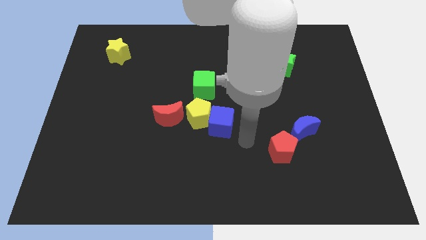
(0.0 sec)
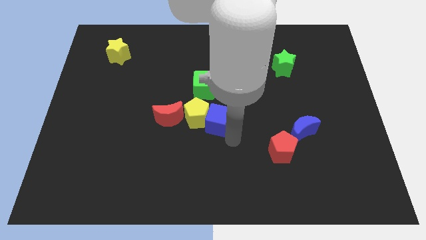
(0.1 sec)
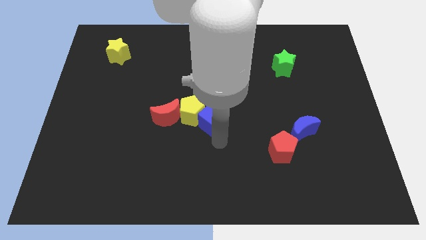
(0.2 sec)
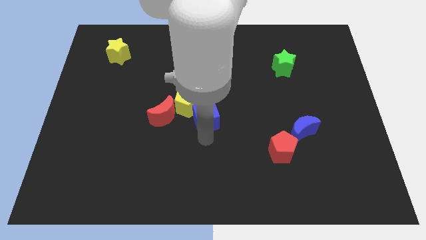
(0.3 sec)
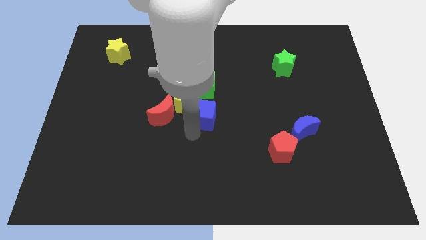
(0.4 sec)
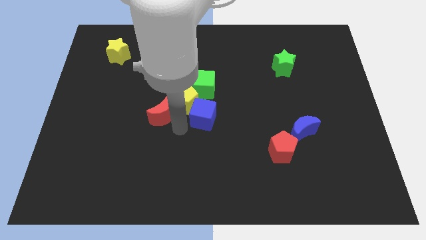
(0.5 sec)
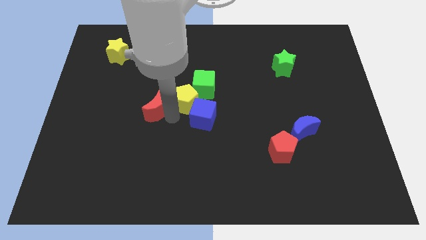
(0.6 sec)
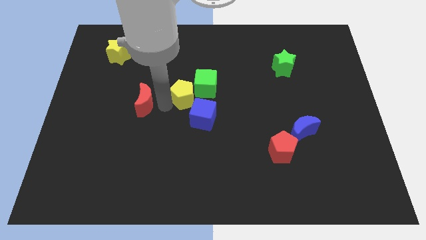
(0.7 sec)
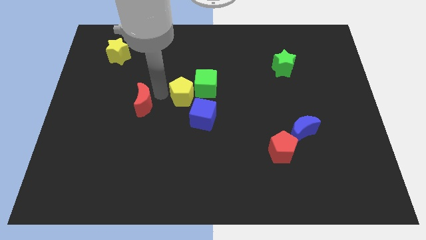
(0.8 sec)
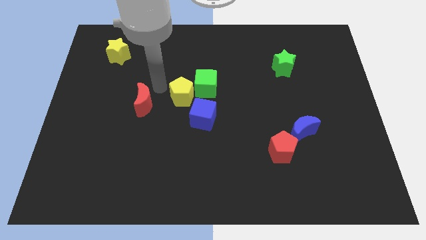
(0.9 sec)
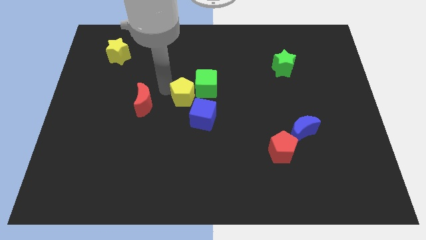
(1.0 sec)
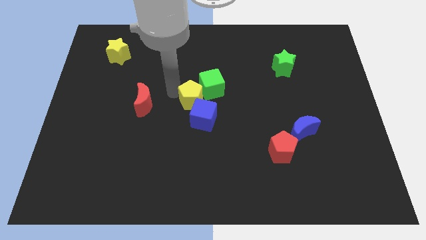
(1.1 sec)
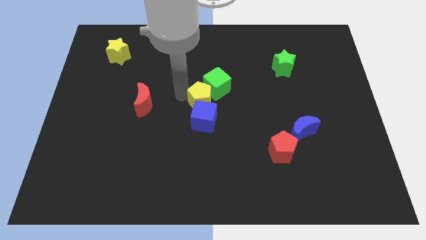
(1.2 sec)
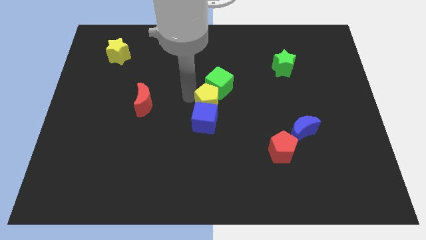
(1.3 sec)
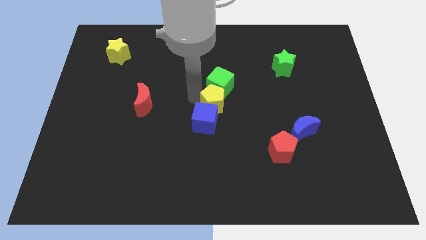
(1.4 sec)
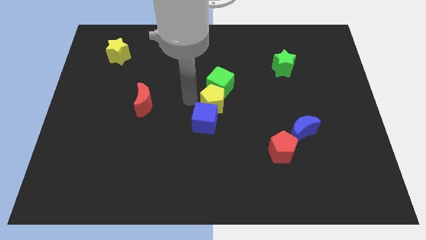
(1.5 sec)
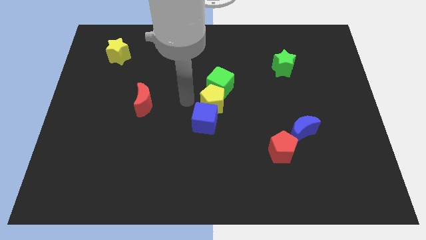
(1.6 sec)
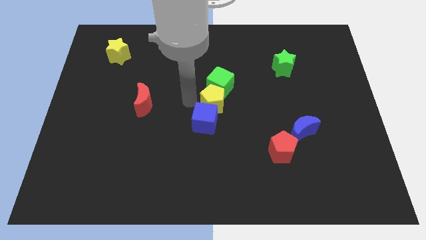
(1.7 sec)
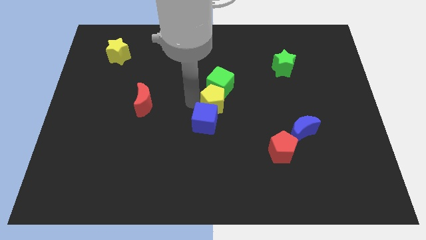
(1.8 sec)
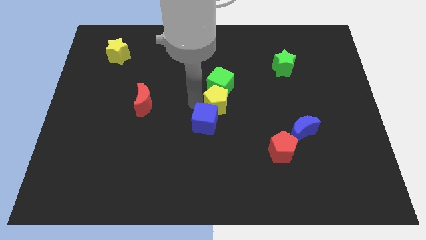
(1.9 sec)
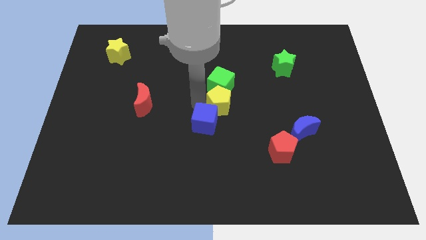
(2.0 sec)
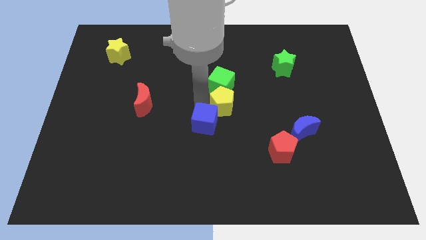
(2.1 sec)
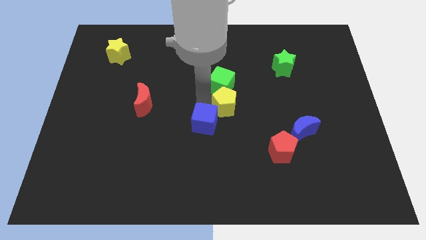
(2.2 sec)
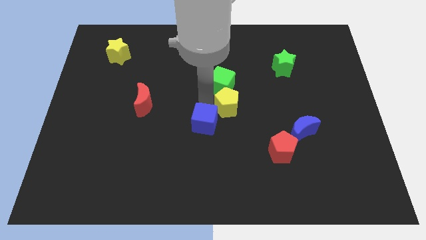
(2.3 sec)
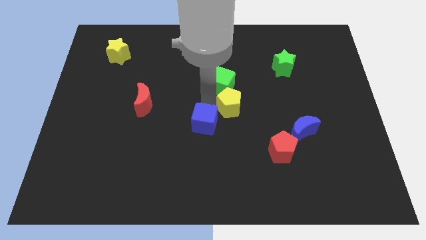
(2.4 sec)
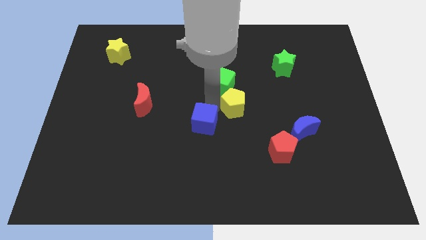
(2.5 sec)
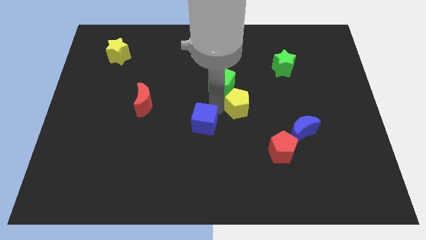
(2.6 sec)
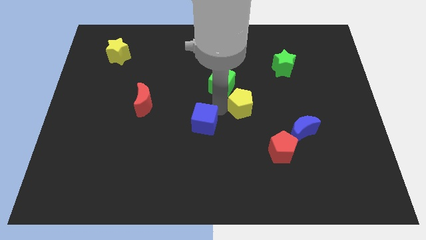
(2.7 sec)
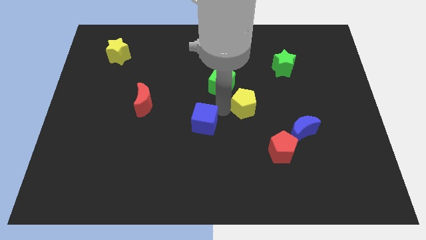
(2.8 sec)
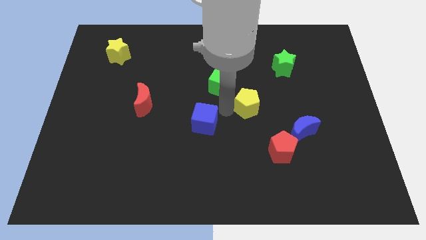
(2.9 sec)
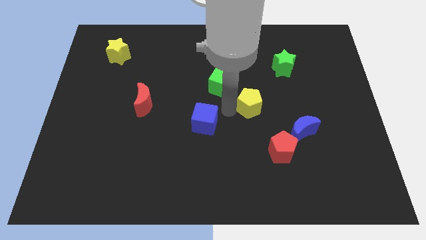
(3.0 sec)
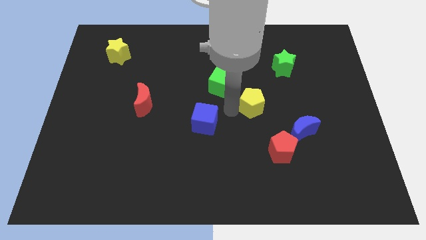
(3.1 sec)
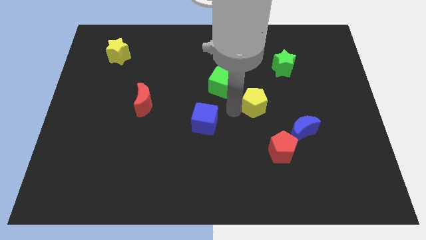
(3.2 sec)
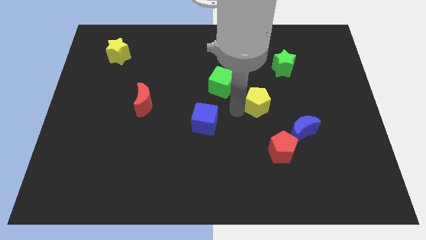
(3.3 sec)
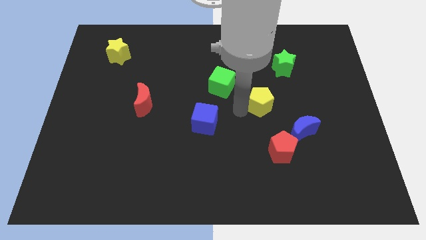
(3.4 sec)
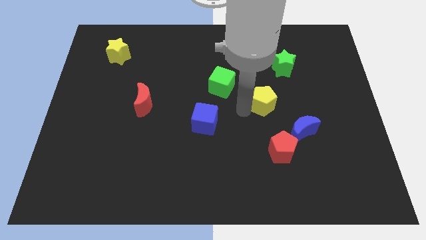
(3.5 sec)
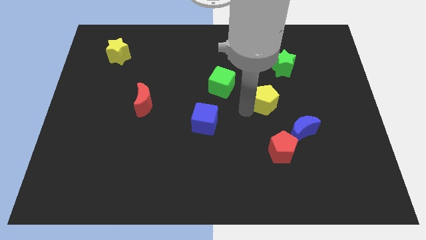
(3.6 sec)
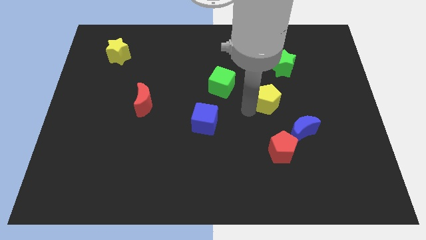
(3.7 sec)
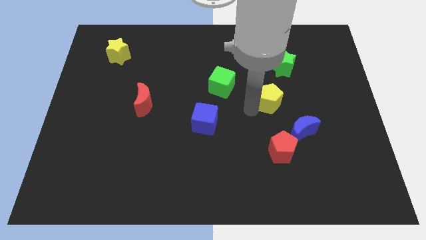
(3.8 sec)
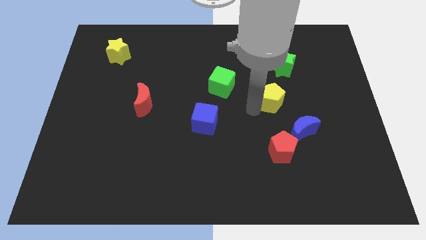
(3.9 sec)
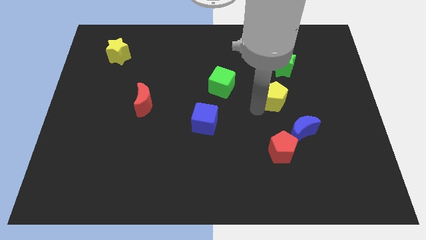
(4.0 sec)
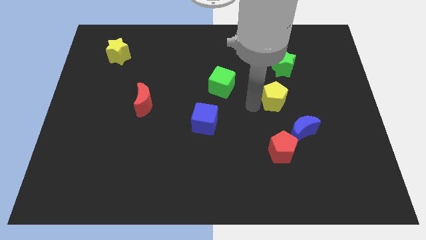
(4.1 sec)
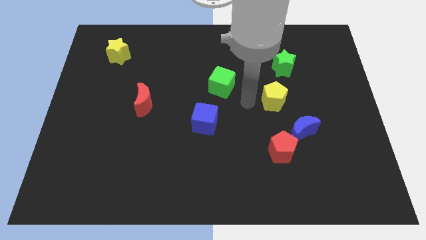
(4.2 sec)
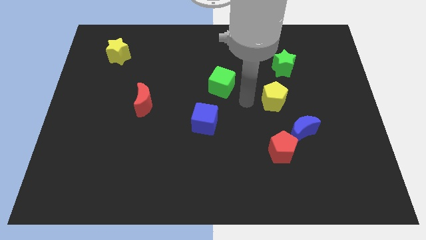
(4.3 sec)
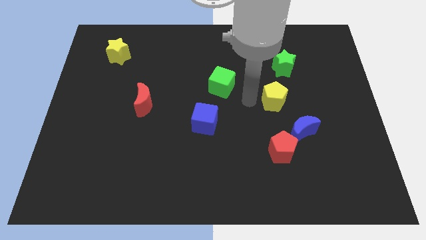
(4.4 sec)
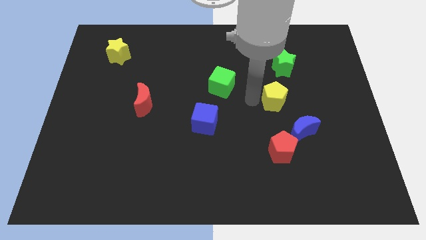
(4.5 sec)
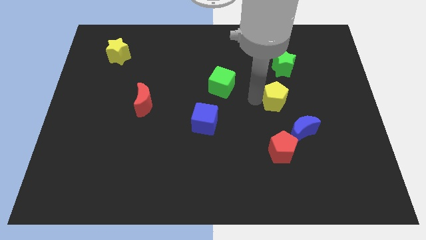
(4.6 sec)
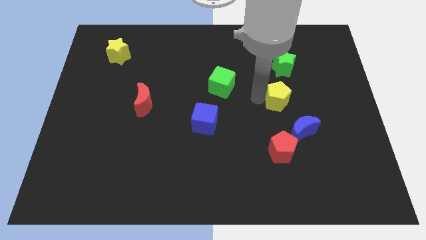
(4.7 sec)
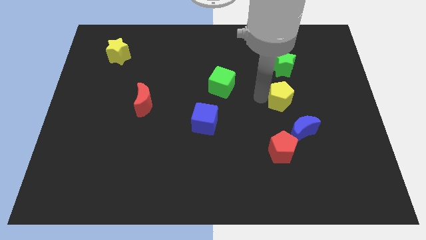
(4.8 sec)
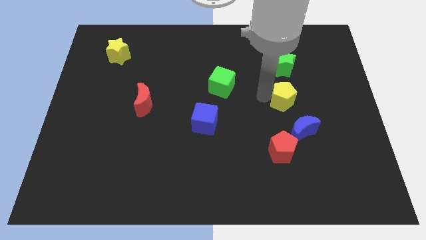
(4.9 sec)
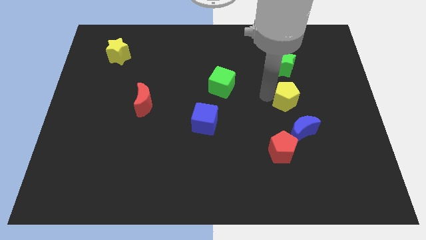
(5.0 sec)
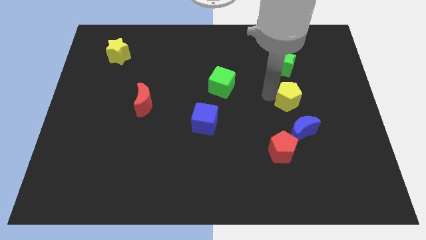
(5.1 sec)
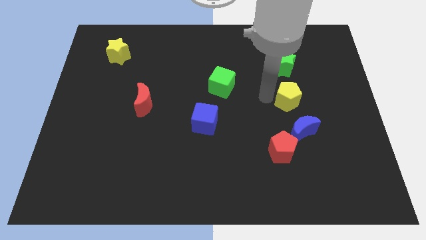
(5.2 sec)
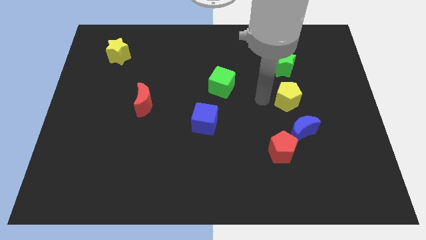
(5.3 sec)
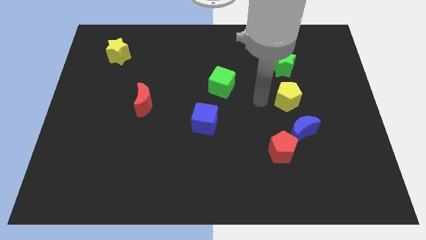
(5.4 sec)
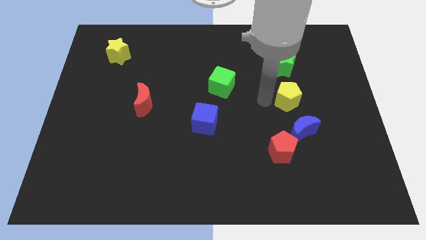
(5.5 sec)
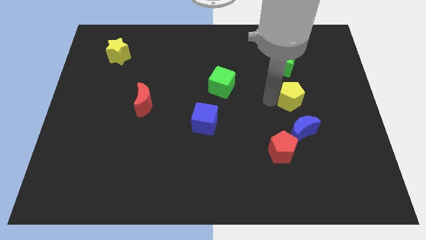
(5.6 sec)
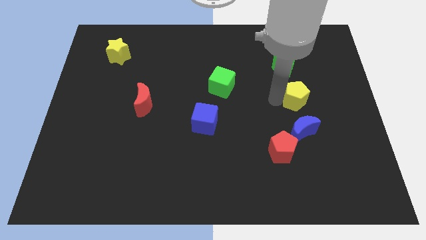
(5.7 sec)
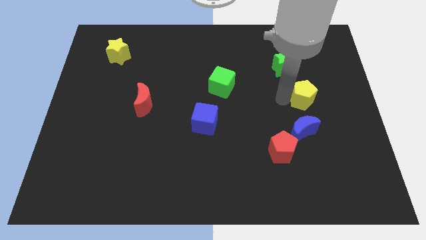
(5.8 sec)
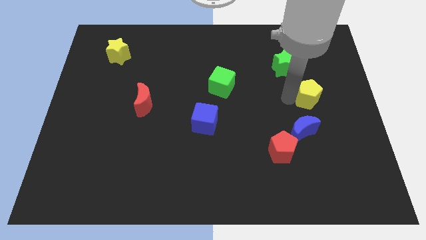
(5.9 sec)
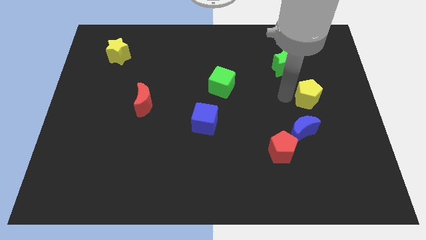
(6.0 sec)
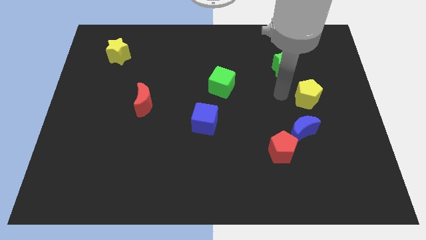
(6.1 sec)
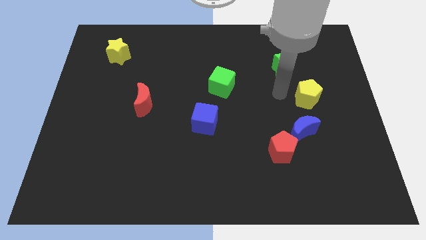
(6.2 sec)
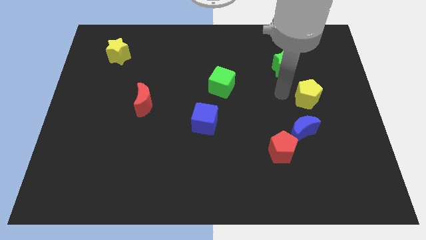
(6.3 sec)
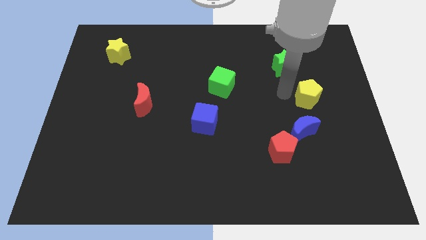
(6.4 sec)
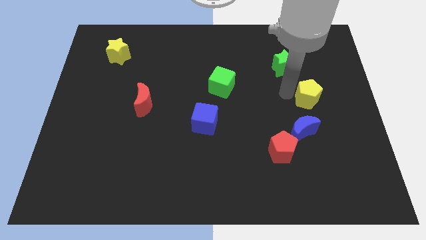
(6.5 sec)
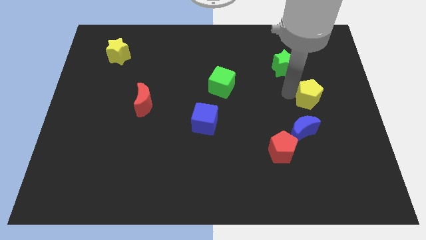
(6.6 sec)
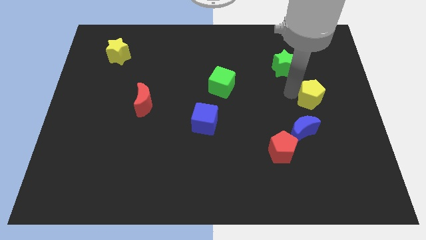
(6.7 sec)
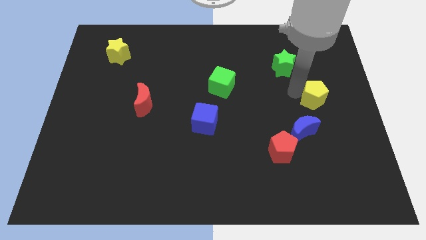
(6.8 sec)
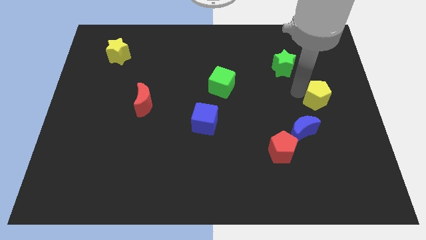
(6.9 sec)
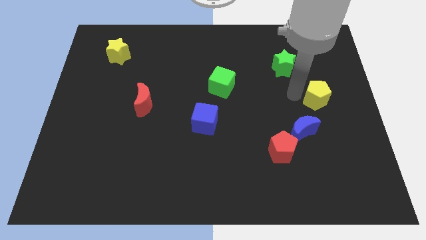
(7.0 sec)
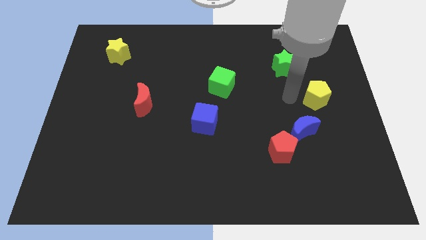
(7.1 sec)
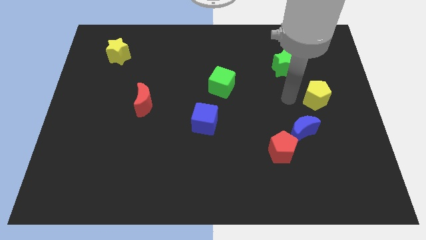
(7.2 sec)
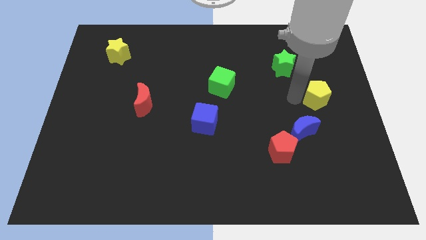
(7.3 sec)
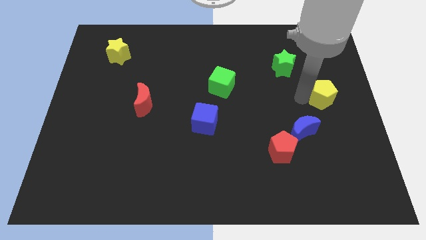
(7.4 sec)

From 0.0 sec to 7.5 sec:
move the yellow pentagon to the right side
